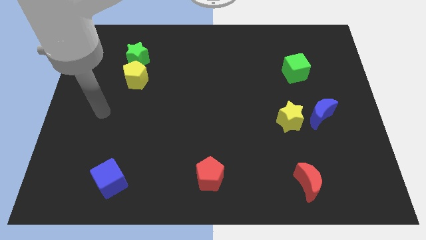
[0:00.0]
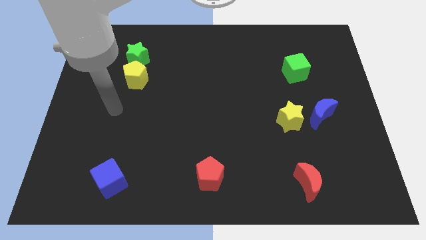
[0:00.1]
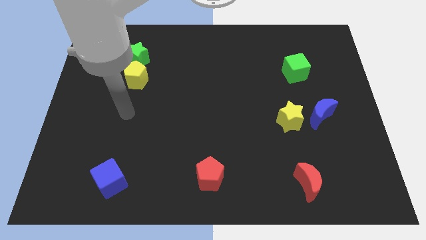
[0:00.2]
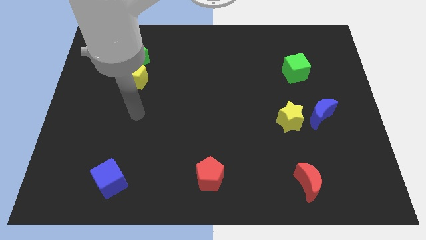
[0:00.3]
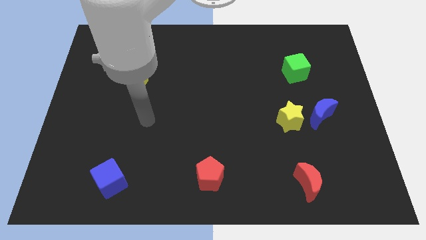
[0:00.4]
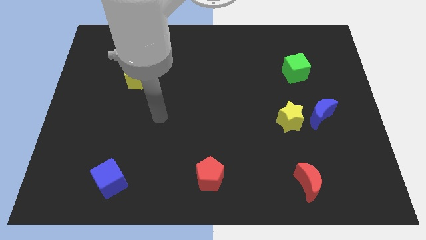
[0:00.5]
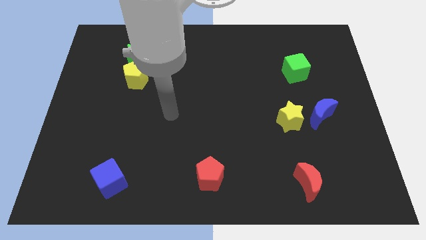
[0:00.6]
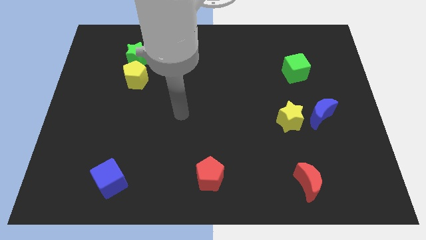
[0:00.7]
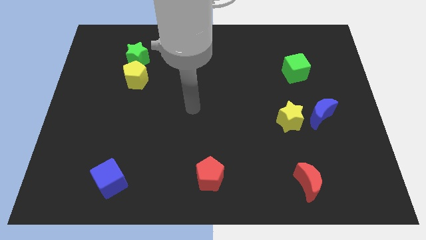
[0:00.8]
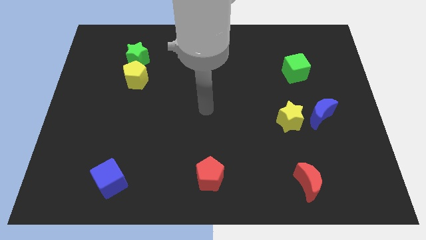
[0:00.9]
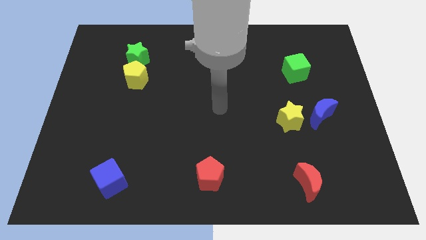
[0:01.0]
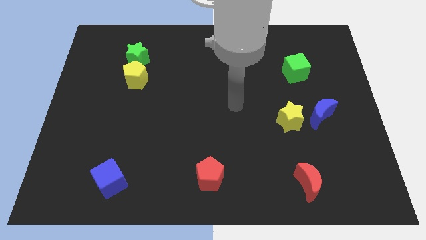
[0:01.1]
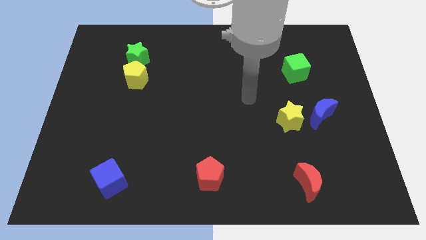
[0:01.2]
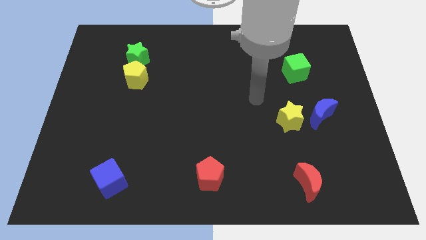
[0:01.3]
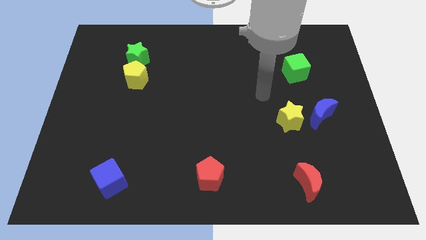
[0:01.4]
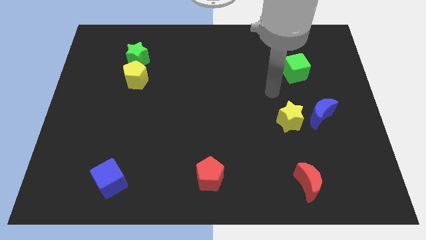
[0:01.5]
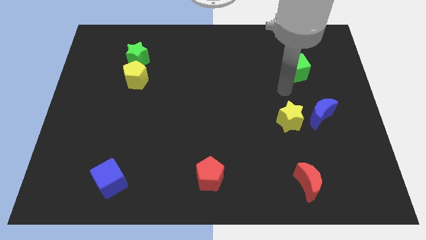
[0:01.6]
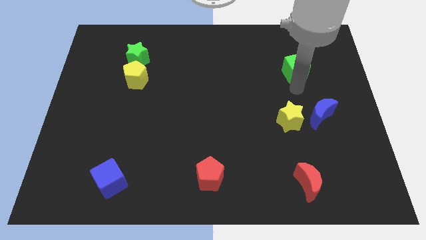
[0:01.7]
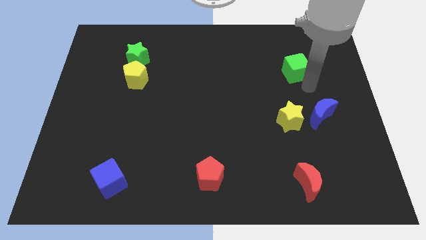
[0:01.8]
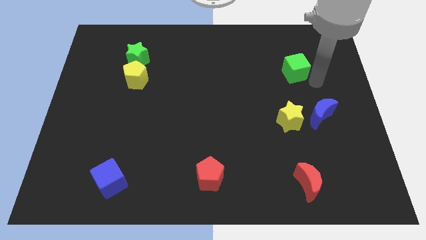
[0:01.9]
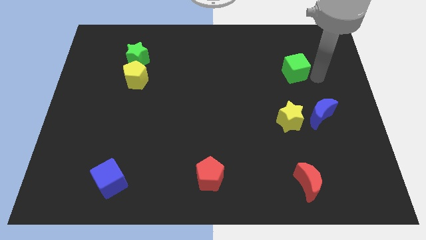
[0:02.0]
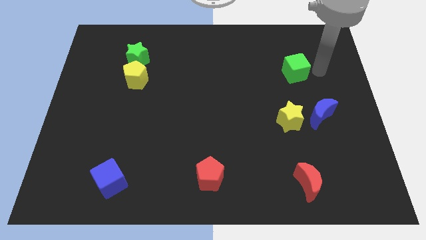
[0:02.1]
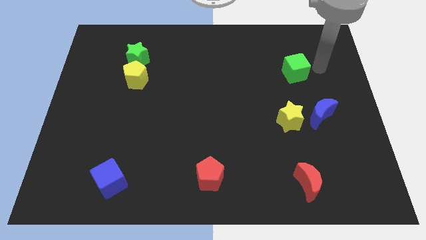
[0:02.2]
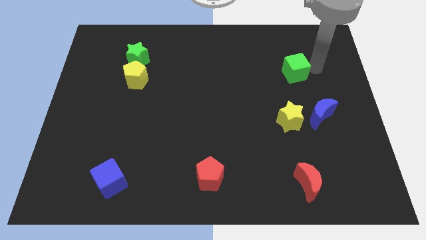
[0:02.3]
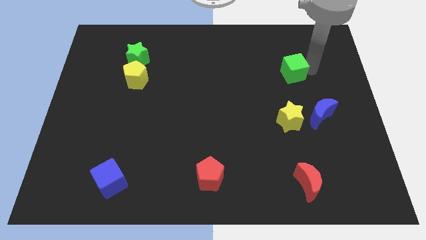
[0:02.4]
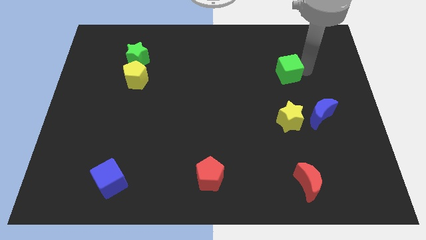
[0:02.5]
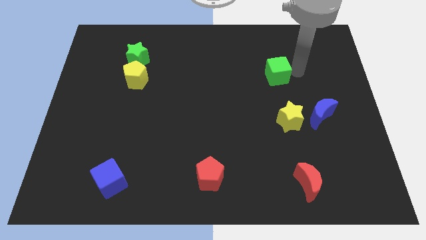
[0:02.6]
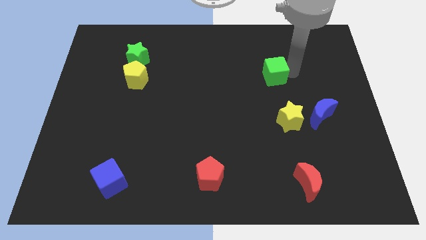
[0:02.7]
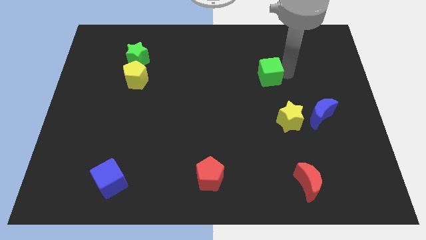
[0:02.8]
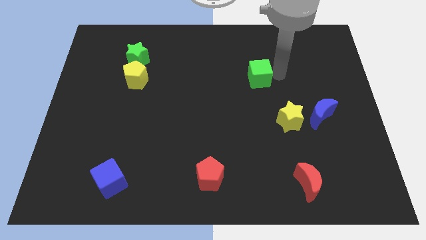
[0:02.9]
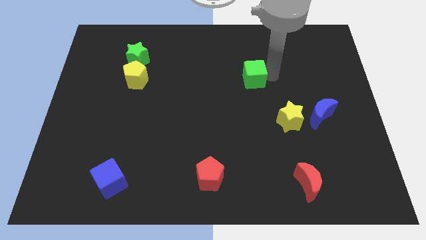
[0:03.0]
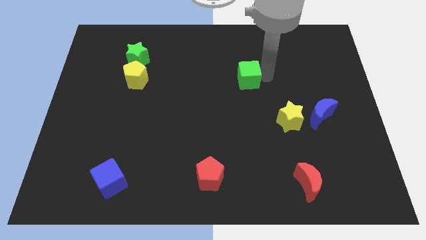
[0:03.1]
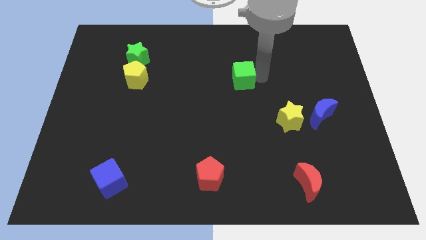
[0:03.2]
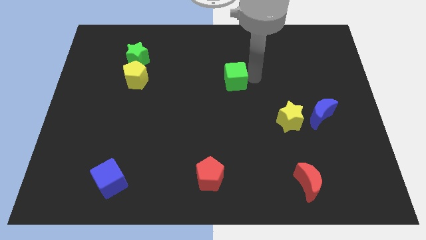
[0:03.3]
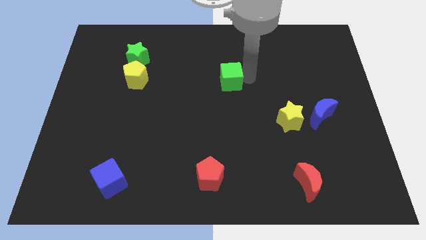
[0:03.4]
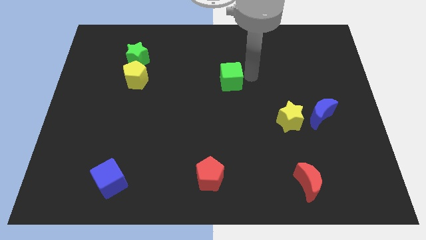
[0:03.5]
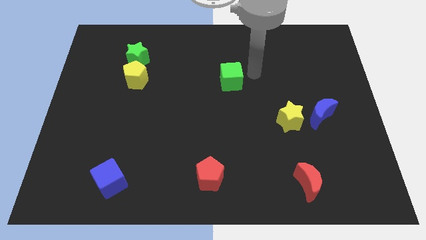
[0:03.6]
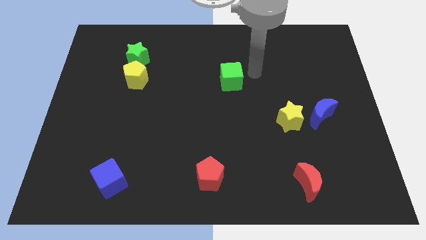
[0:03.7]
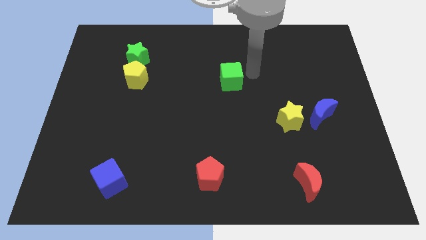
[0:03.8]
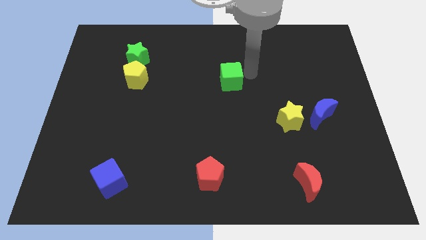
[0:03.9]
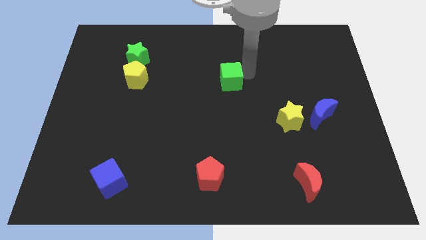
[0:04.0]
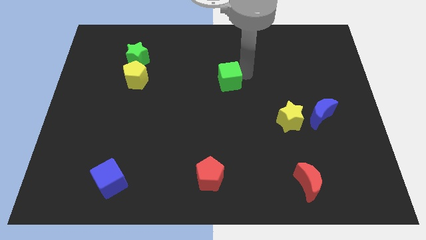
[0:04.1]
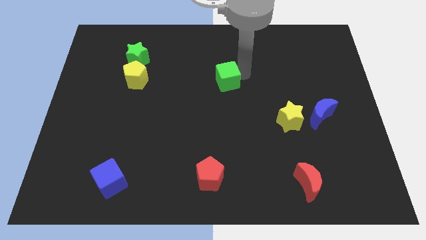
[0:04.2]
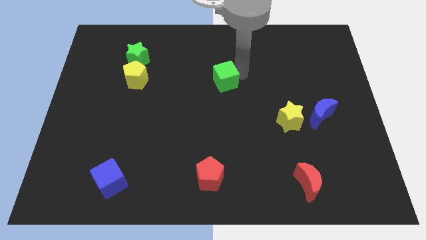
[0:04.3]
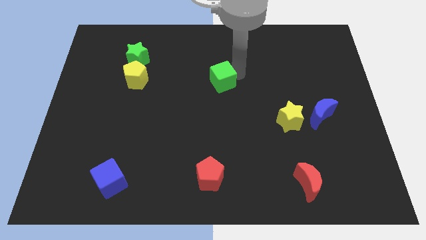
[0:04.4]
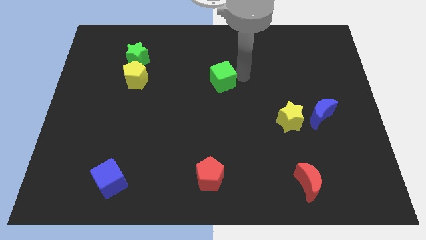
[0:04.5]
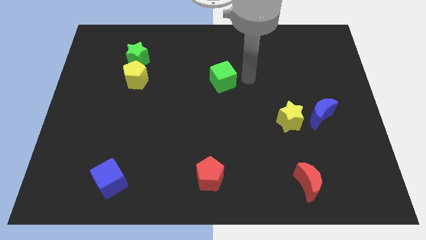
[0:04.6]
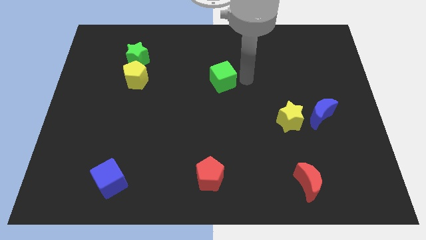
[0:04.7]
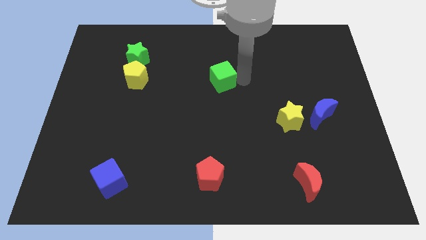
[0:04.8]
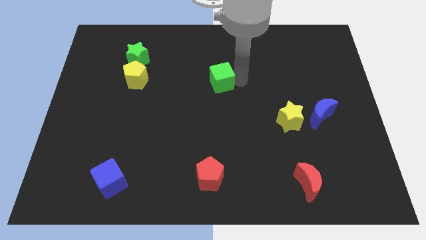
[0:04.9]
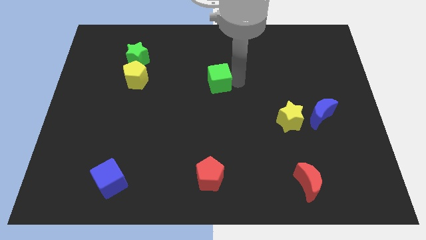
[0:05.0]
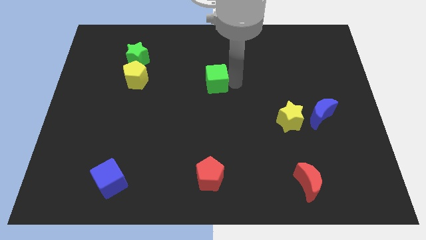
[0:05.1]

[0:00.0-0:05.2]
push the green cube left

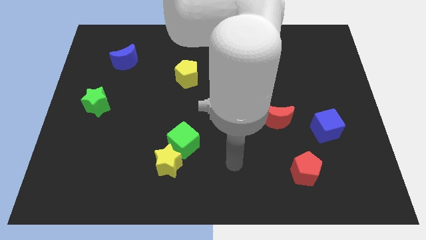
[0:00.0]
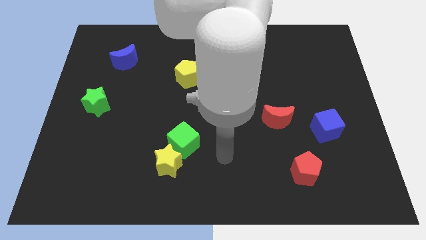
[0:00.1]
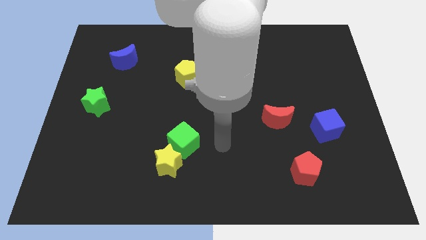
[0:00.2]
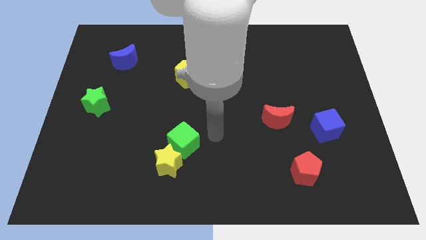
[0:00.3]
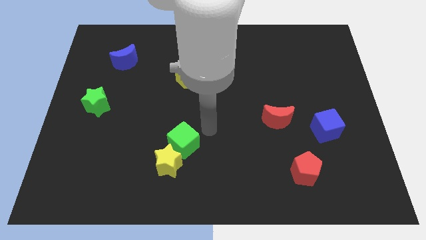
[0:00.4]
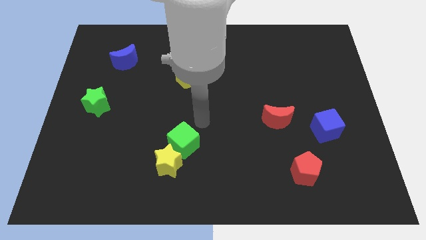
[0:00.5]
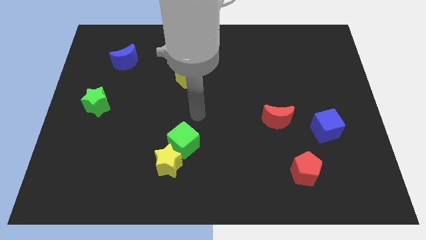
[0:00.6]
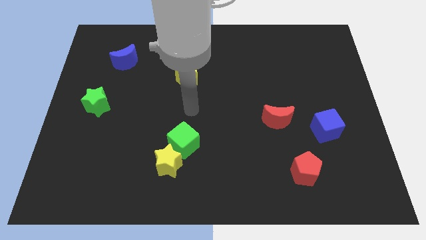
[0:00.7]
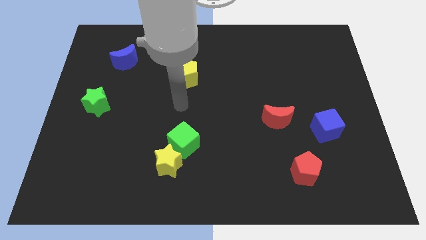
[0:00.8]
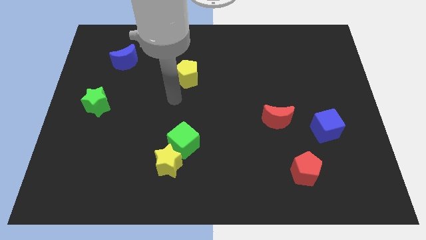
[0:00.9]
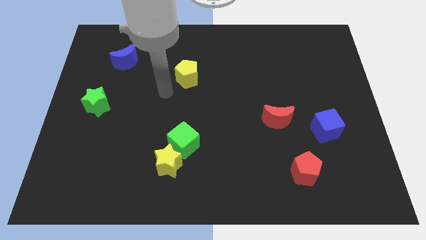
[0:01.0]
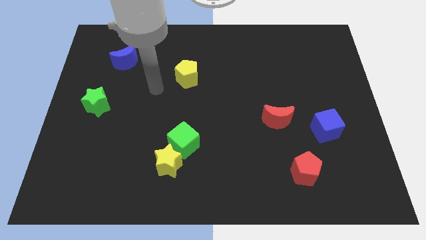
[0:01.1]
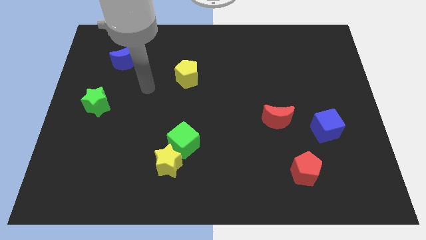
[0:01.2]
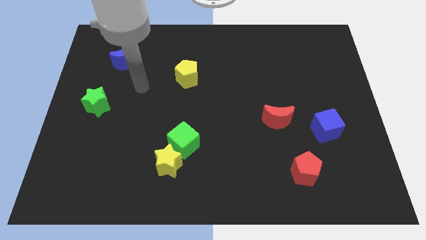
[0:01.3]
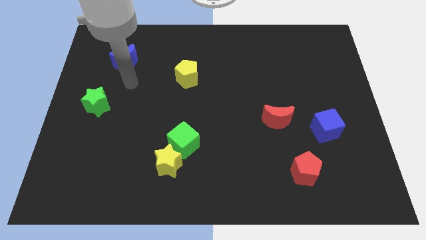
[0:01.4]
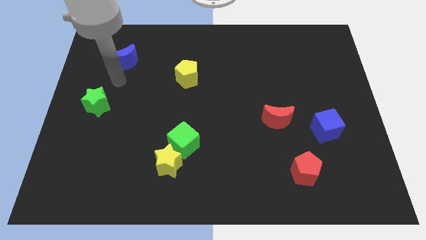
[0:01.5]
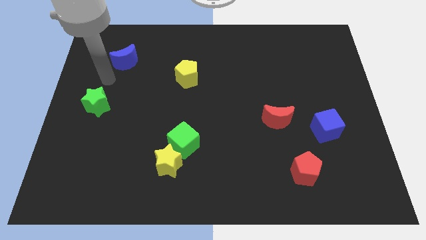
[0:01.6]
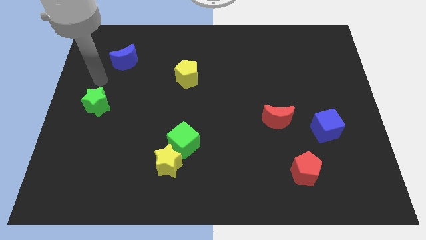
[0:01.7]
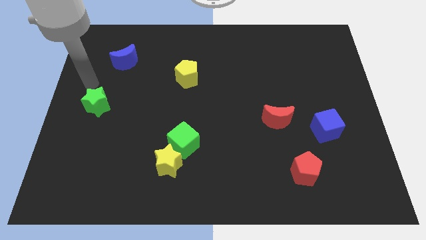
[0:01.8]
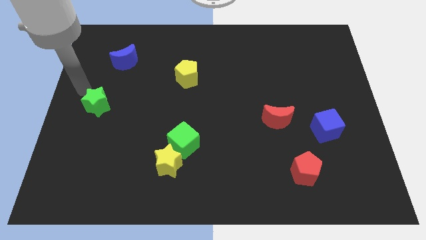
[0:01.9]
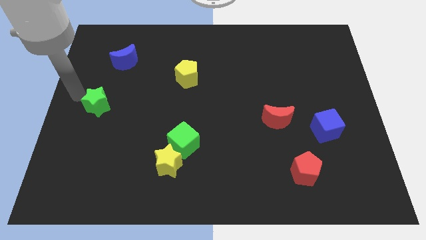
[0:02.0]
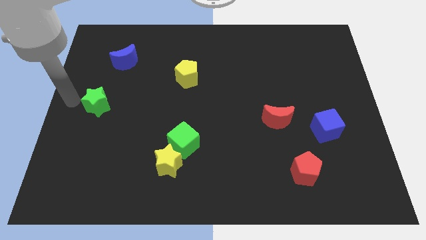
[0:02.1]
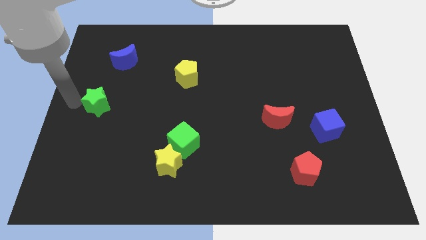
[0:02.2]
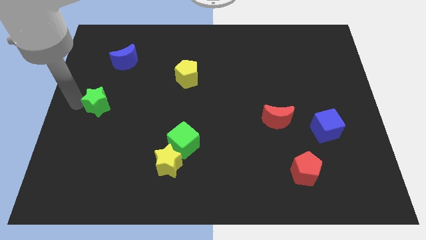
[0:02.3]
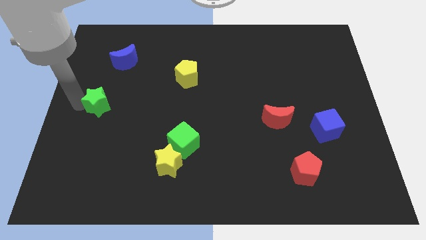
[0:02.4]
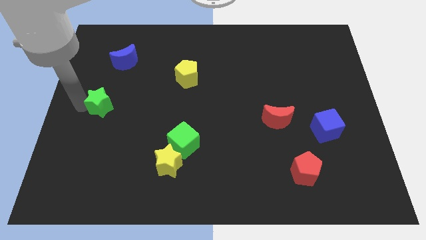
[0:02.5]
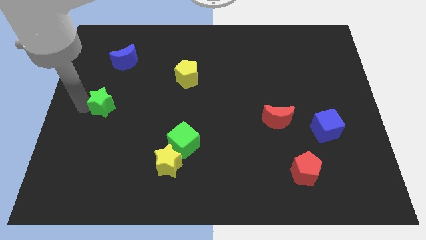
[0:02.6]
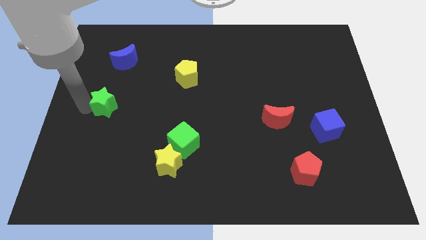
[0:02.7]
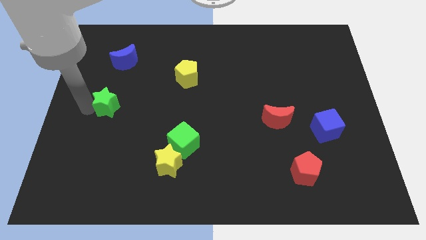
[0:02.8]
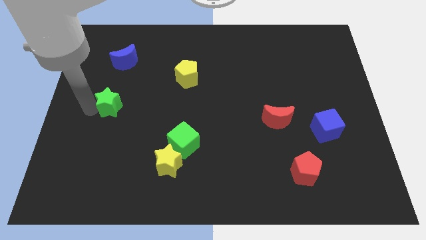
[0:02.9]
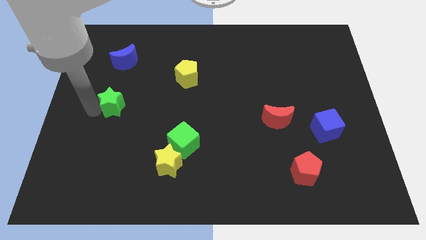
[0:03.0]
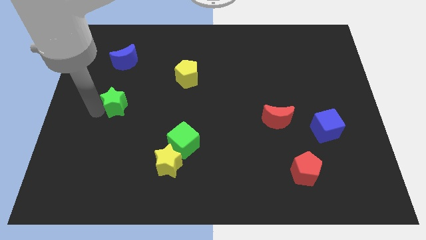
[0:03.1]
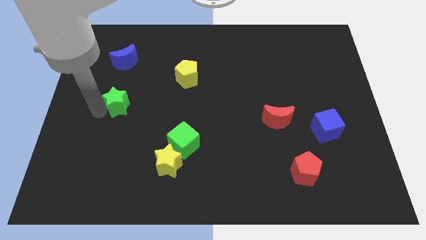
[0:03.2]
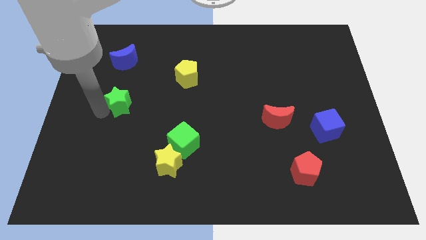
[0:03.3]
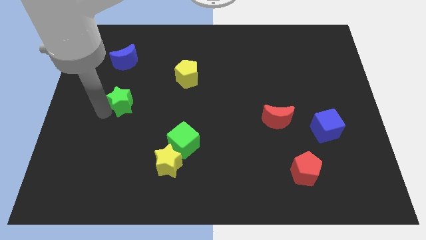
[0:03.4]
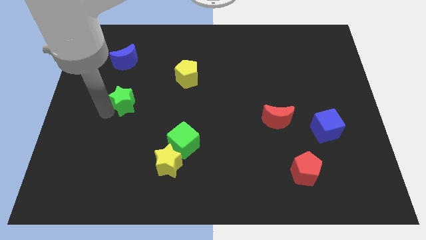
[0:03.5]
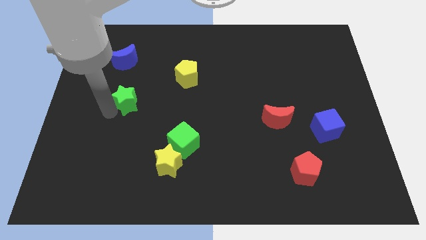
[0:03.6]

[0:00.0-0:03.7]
push the green star a bit to the right
